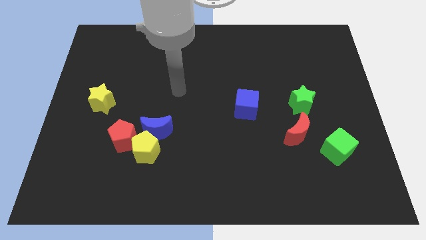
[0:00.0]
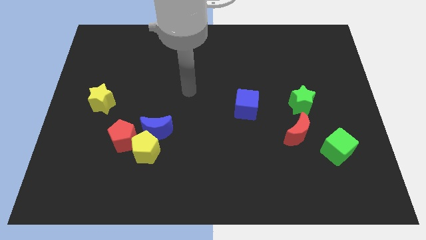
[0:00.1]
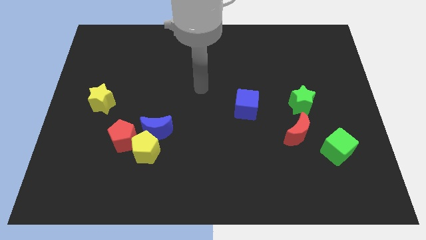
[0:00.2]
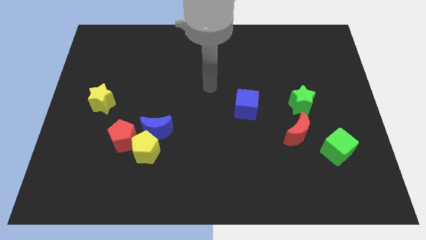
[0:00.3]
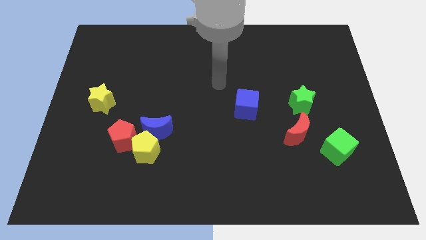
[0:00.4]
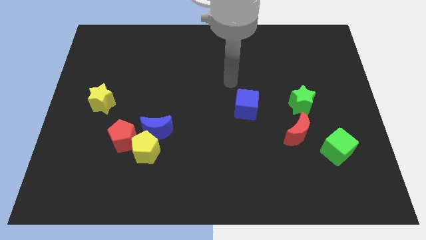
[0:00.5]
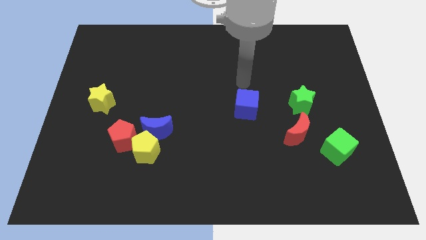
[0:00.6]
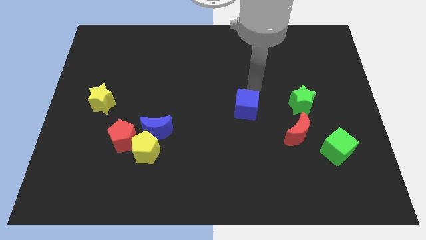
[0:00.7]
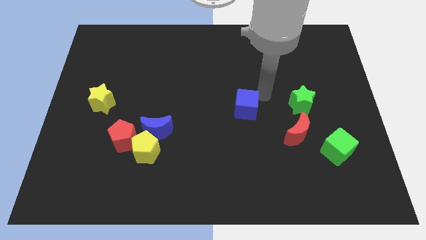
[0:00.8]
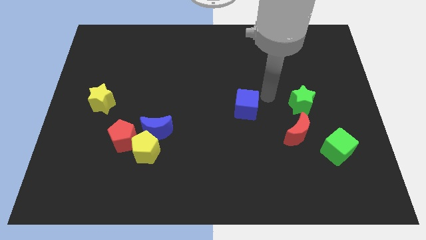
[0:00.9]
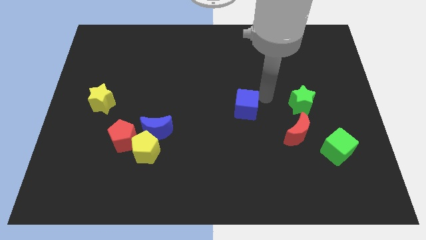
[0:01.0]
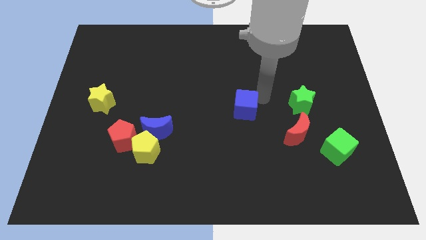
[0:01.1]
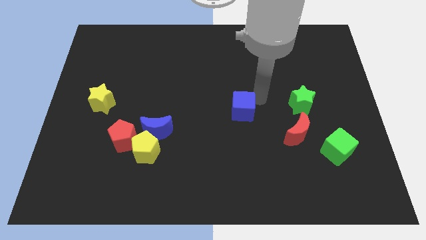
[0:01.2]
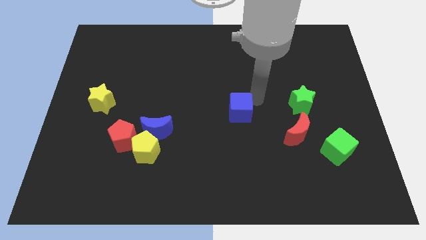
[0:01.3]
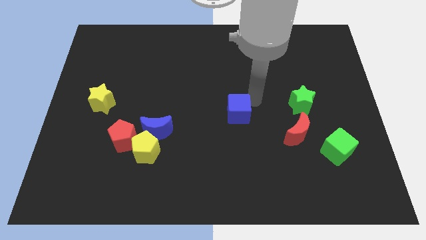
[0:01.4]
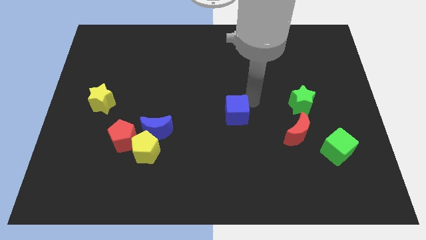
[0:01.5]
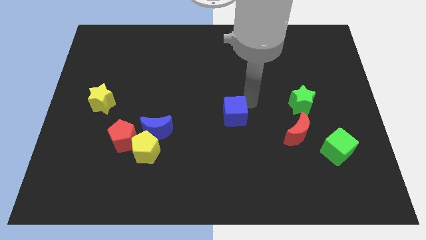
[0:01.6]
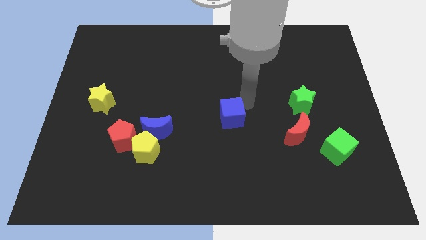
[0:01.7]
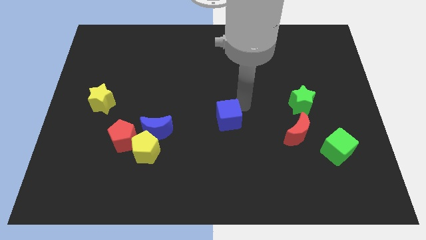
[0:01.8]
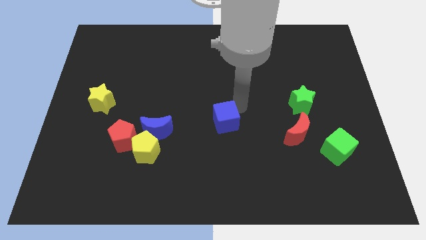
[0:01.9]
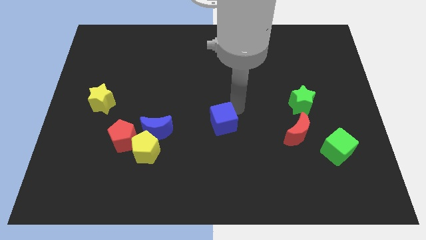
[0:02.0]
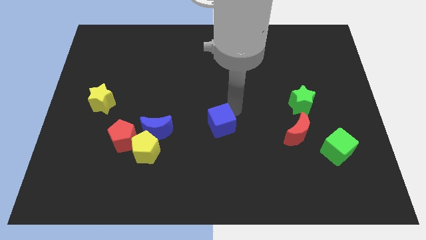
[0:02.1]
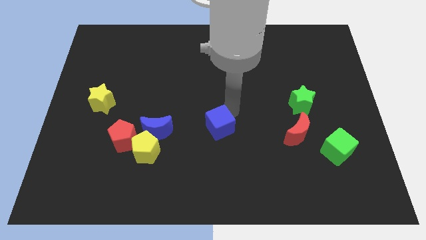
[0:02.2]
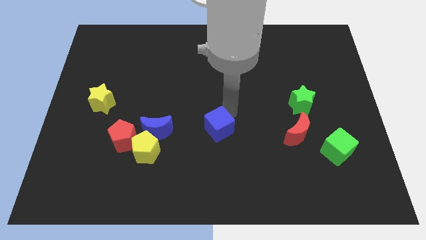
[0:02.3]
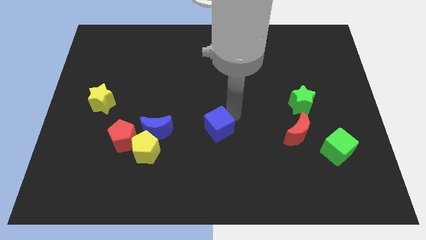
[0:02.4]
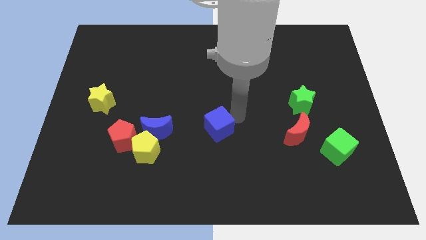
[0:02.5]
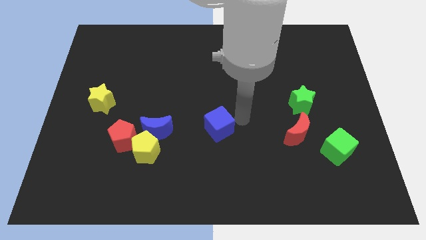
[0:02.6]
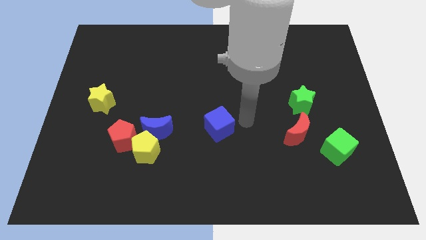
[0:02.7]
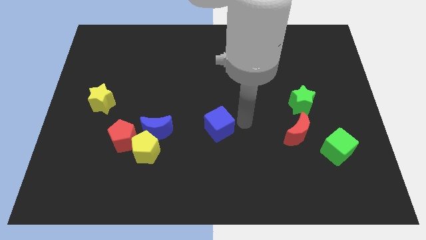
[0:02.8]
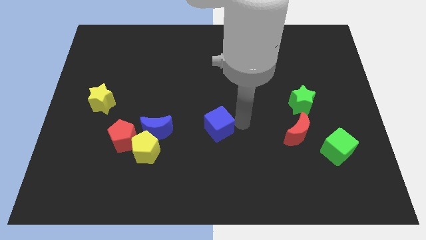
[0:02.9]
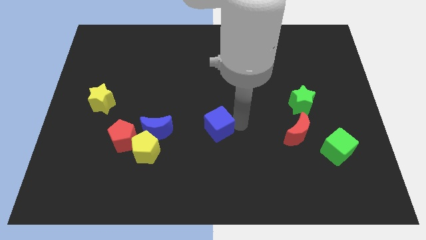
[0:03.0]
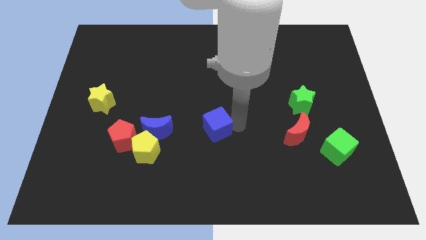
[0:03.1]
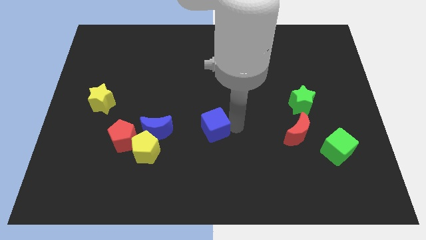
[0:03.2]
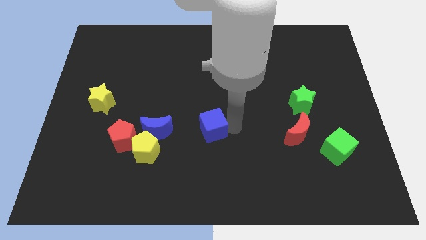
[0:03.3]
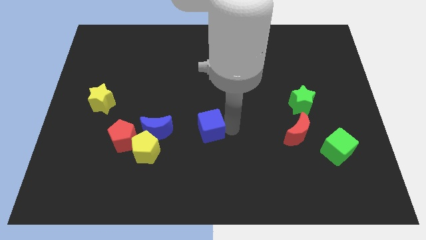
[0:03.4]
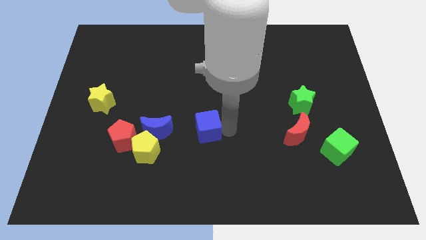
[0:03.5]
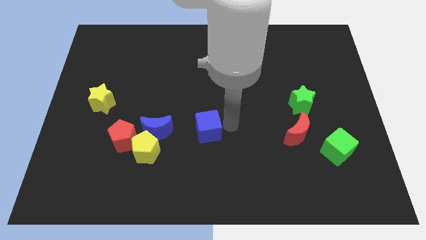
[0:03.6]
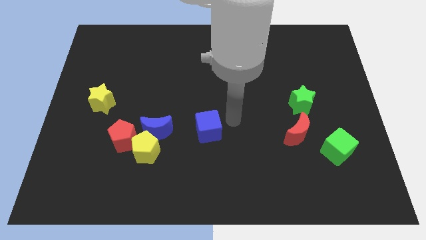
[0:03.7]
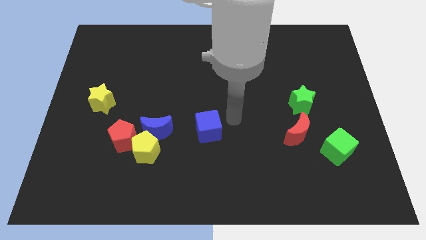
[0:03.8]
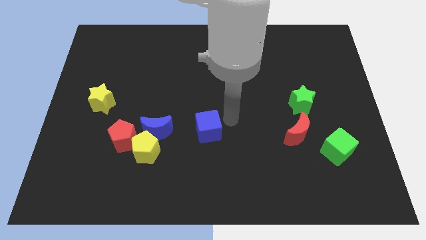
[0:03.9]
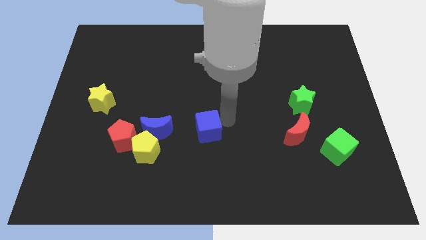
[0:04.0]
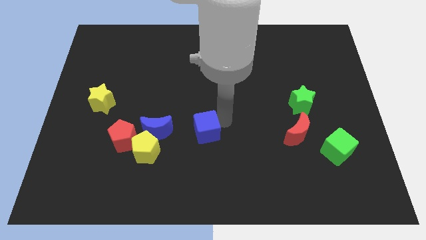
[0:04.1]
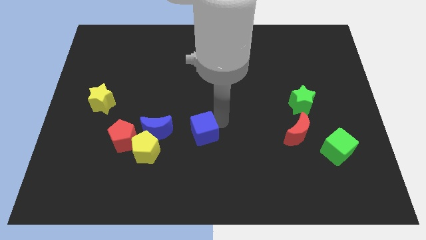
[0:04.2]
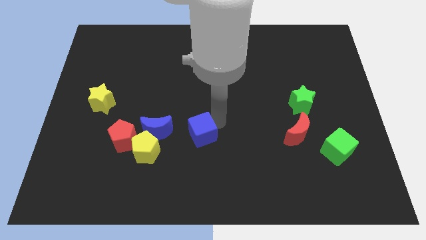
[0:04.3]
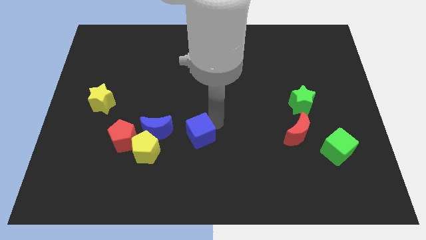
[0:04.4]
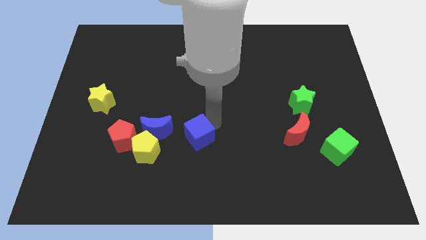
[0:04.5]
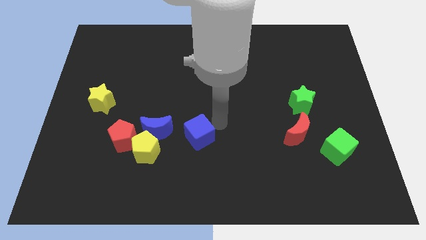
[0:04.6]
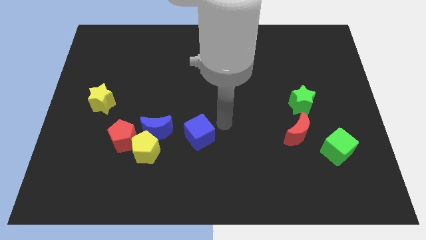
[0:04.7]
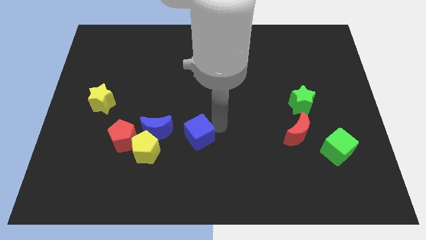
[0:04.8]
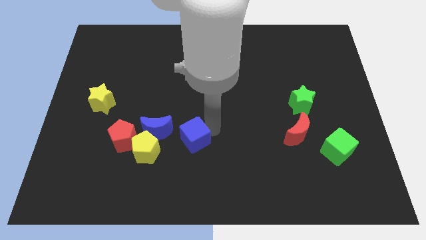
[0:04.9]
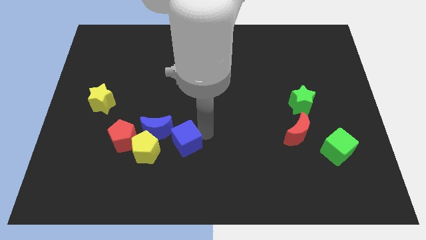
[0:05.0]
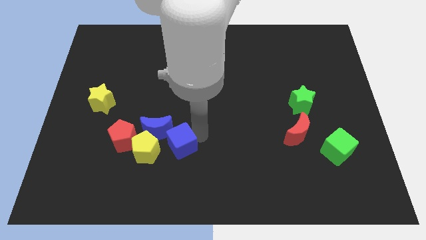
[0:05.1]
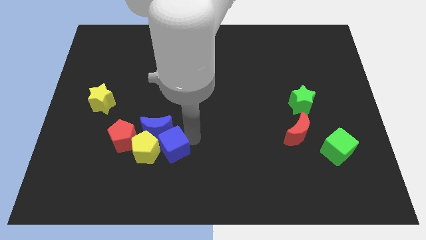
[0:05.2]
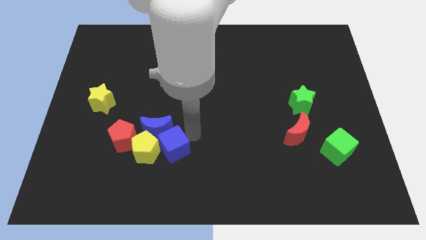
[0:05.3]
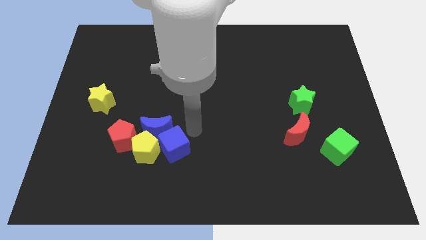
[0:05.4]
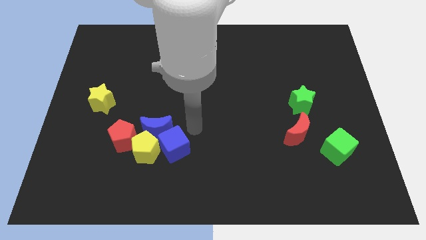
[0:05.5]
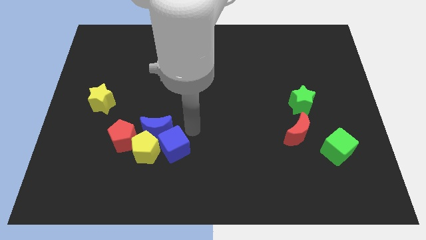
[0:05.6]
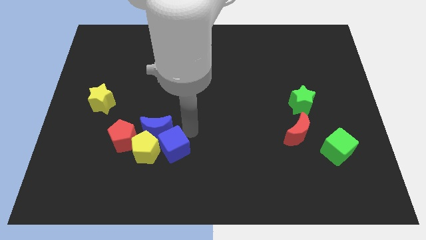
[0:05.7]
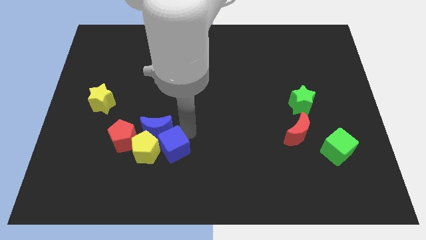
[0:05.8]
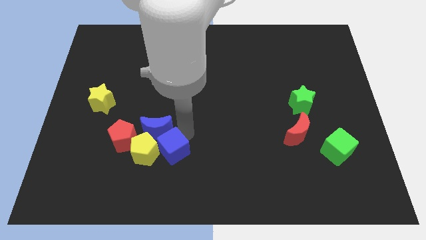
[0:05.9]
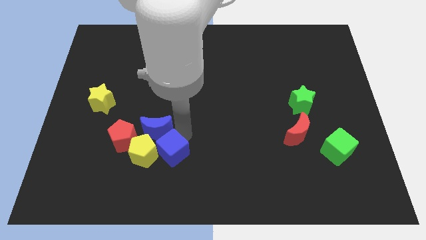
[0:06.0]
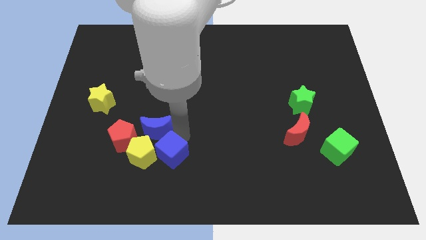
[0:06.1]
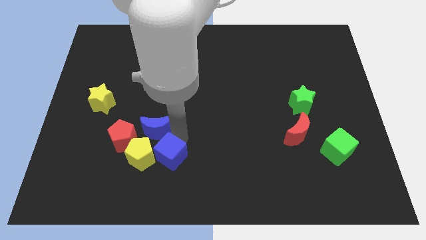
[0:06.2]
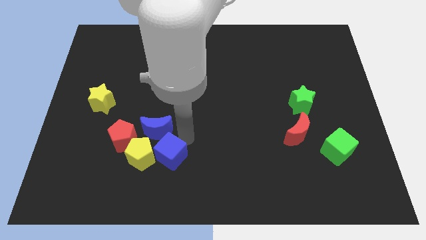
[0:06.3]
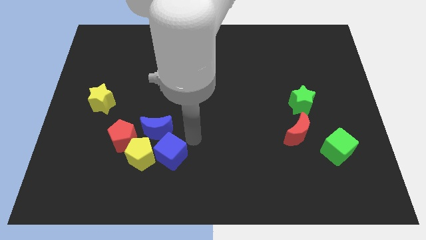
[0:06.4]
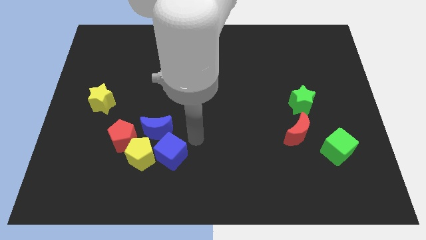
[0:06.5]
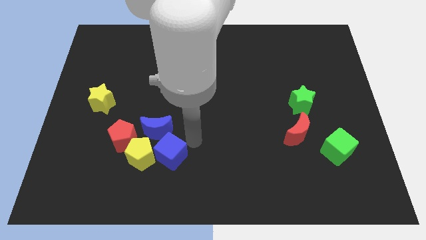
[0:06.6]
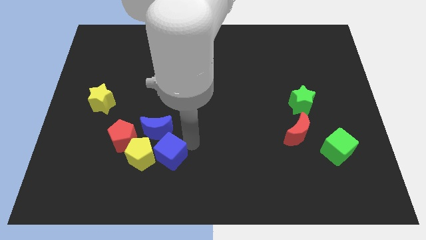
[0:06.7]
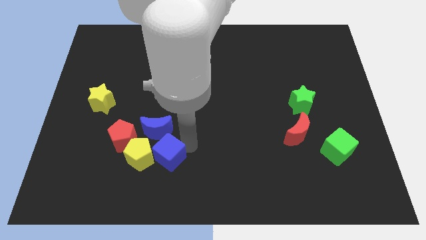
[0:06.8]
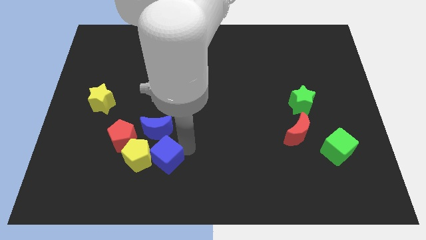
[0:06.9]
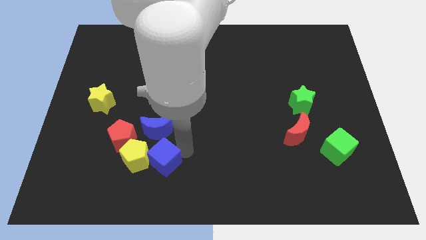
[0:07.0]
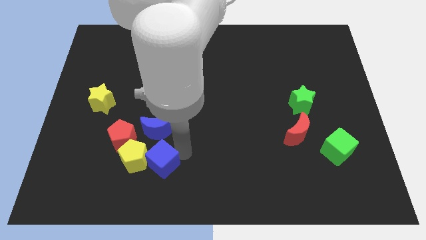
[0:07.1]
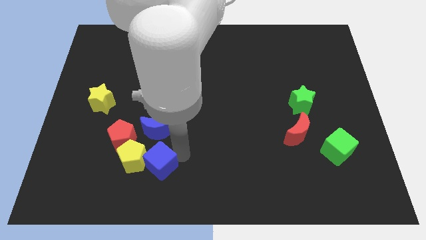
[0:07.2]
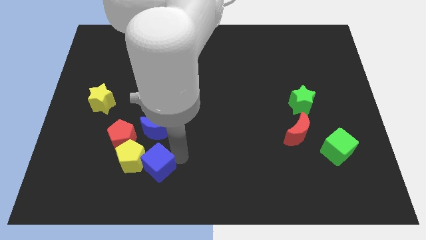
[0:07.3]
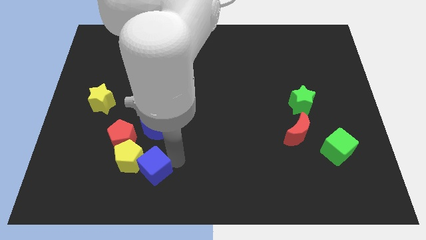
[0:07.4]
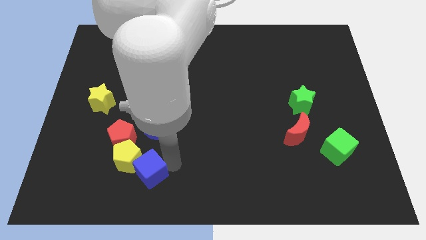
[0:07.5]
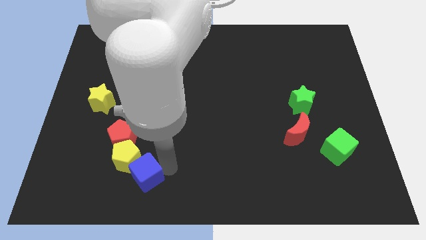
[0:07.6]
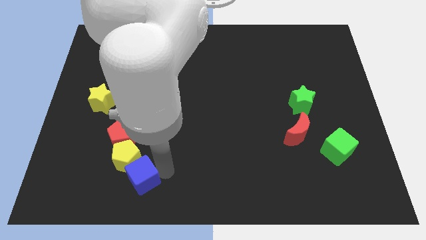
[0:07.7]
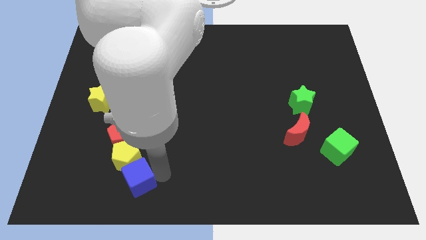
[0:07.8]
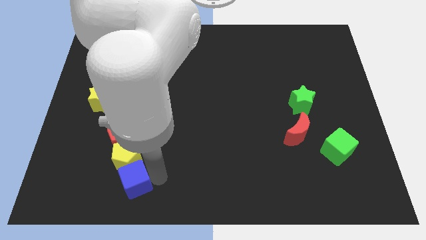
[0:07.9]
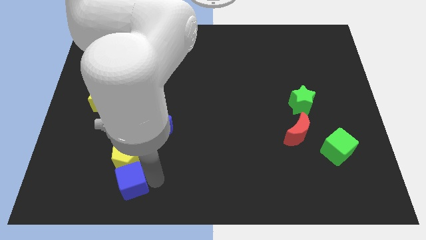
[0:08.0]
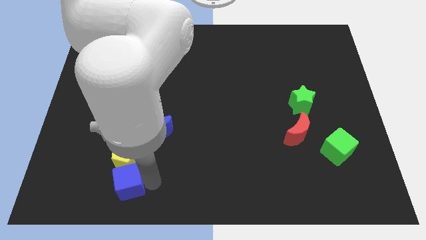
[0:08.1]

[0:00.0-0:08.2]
move the blue cube to the bottom left side of the yellow pentagon

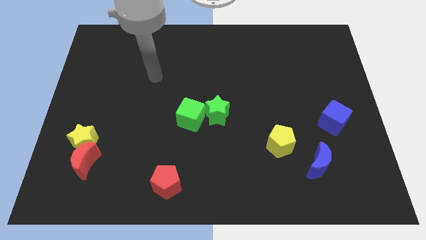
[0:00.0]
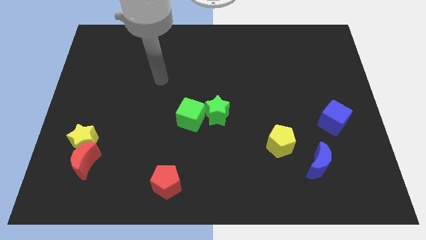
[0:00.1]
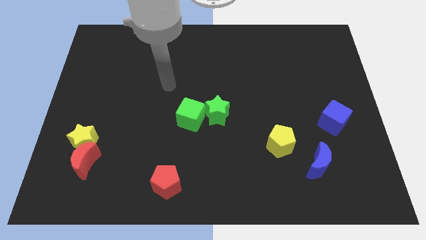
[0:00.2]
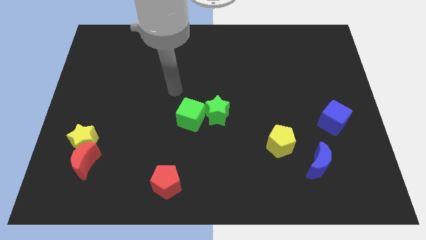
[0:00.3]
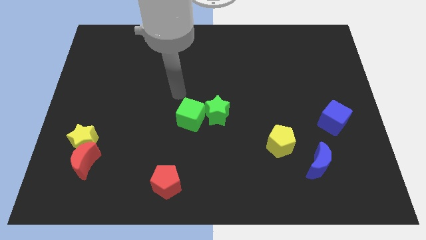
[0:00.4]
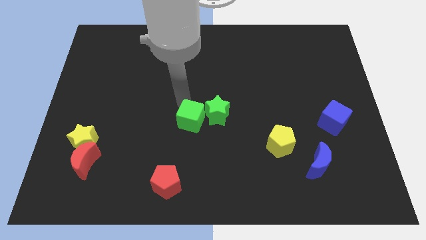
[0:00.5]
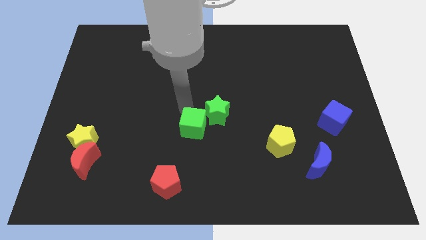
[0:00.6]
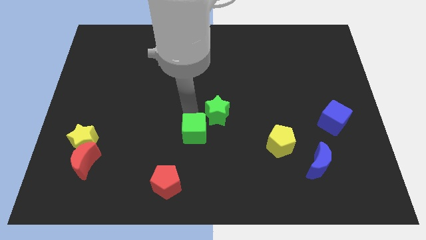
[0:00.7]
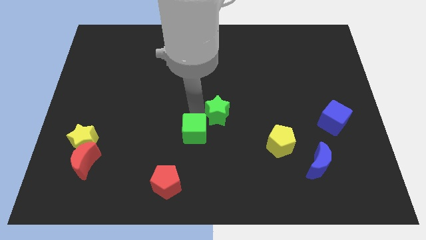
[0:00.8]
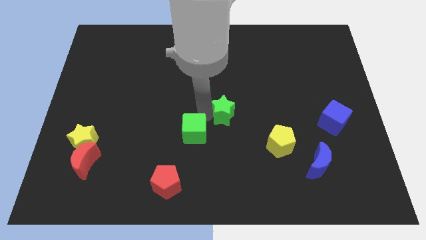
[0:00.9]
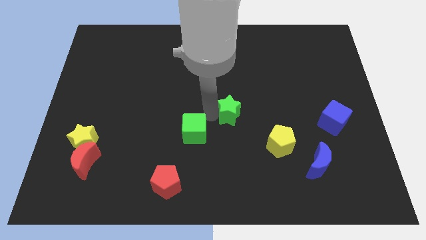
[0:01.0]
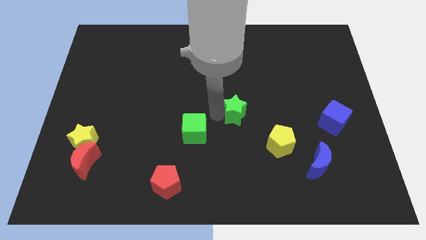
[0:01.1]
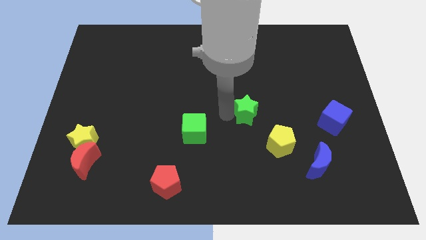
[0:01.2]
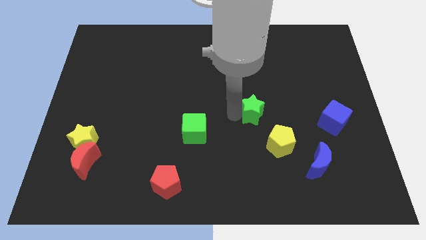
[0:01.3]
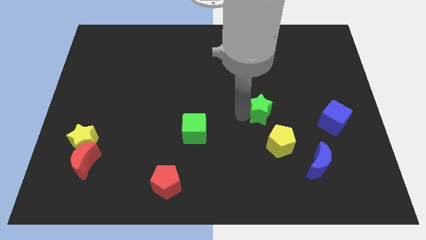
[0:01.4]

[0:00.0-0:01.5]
put the green star to the top of the yellow pentagon
